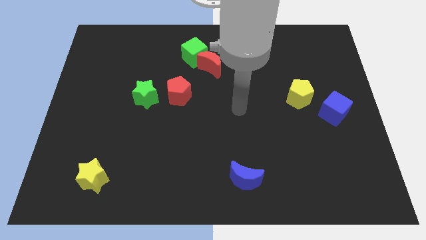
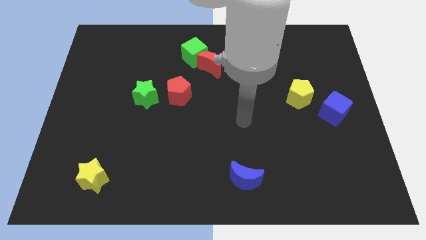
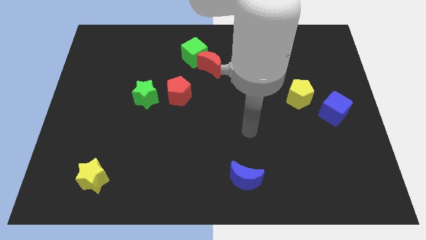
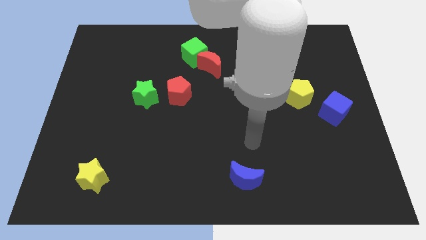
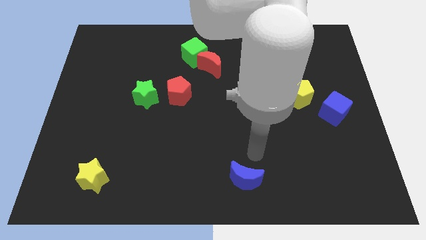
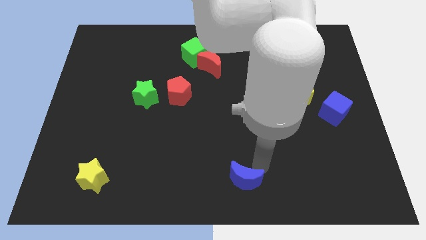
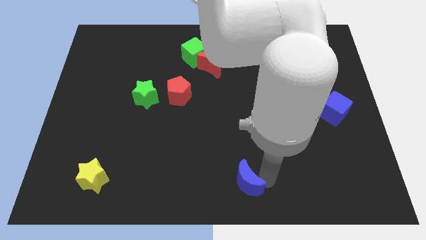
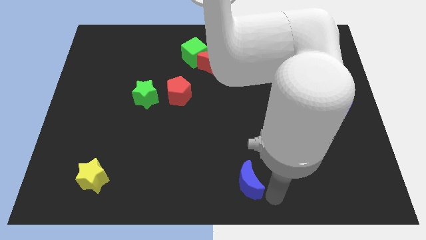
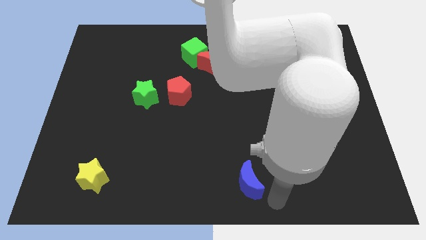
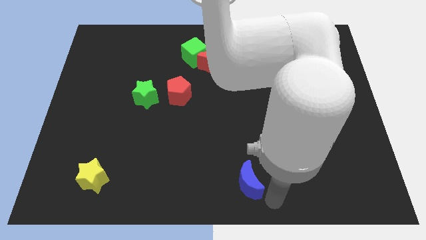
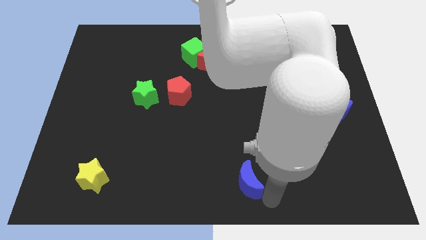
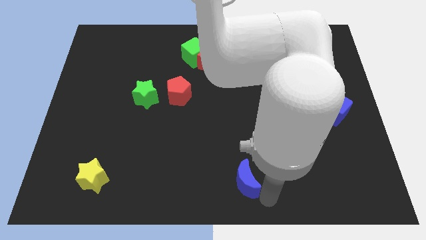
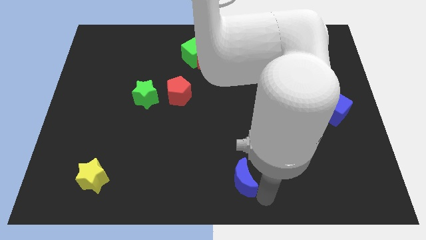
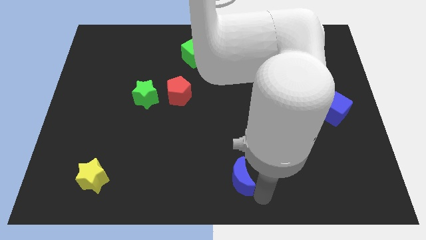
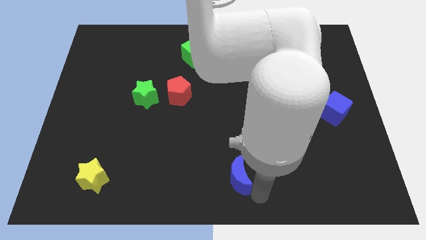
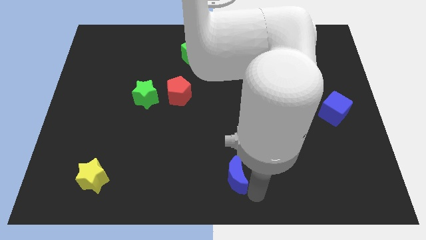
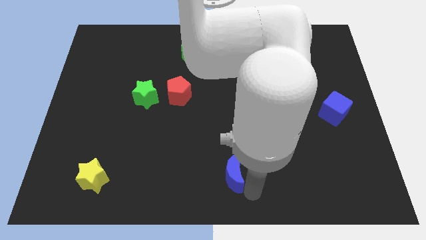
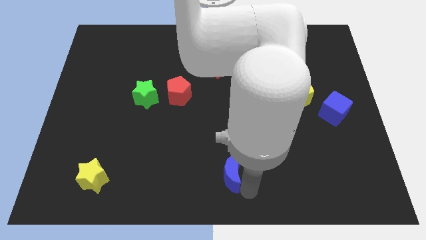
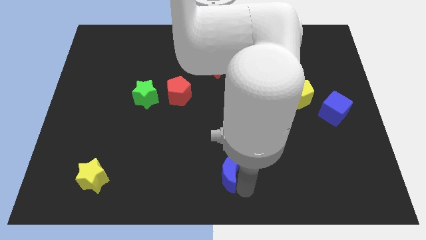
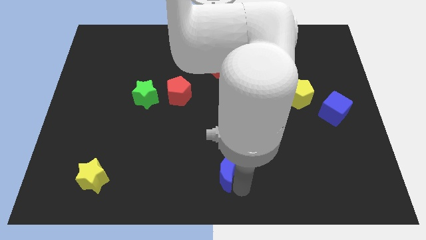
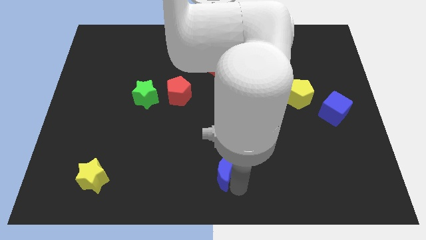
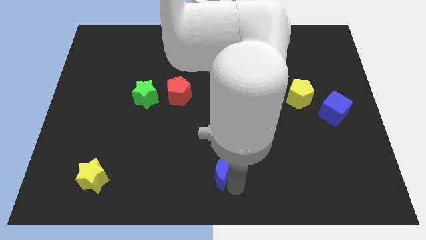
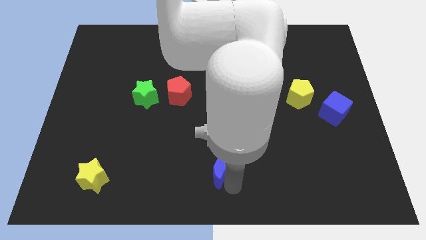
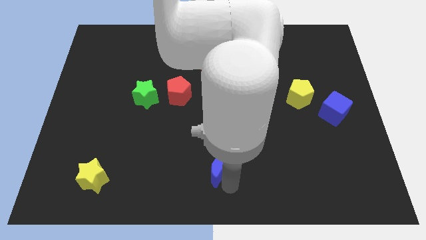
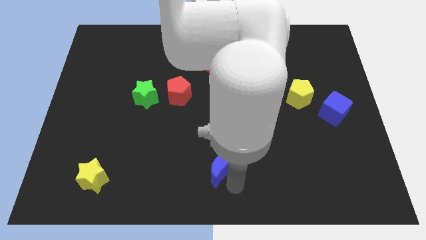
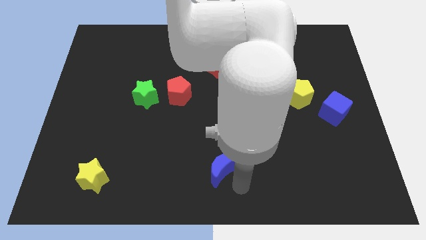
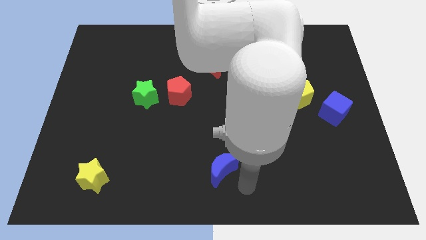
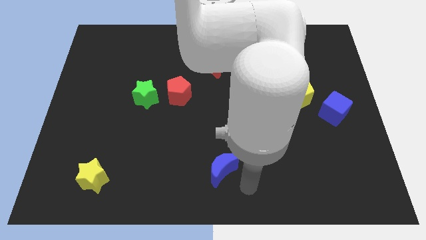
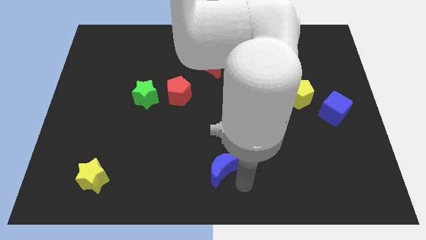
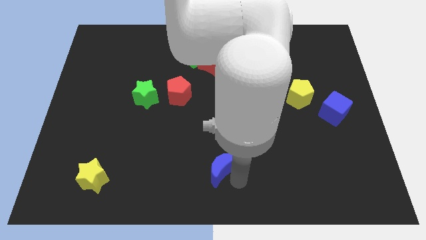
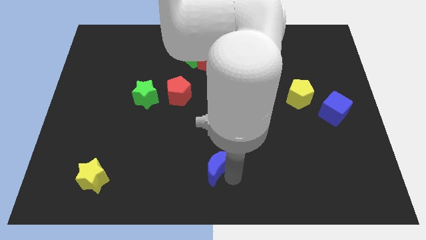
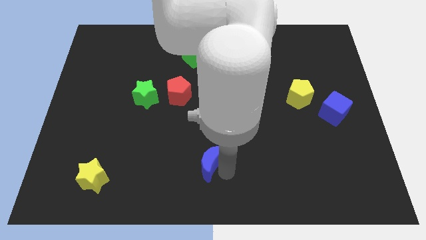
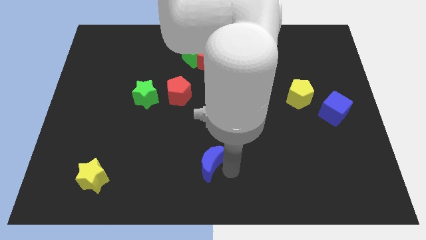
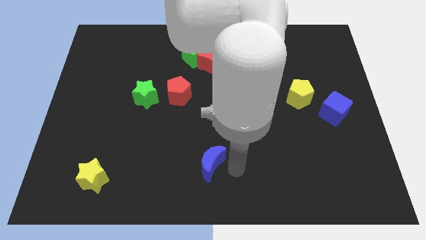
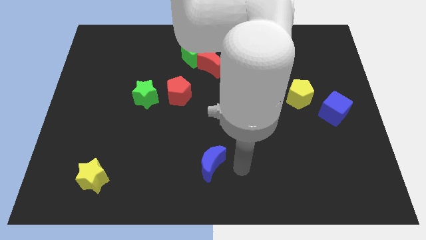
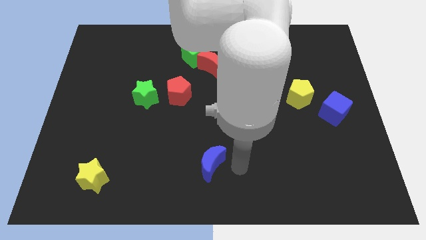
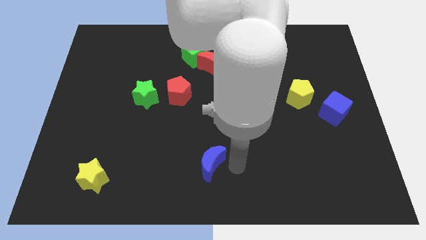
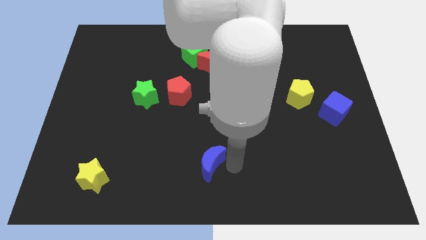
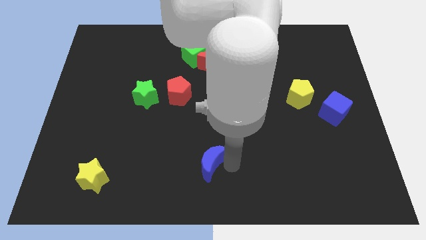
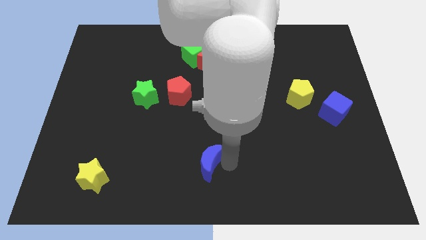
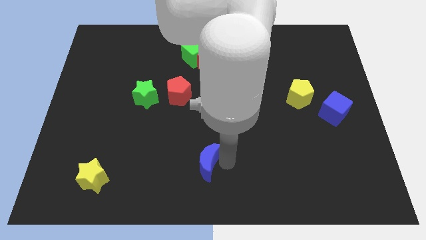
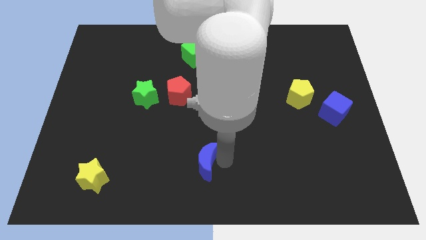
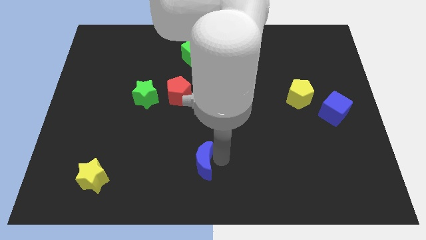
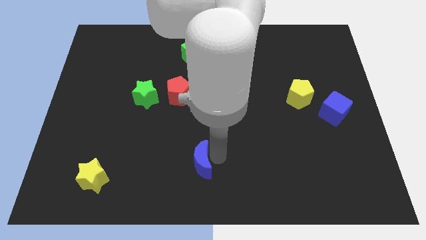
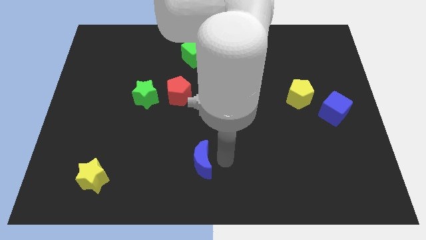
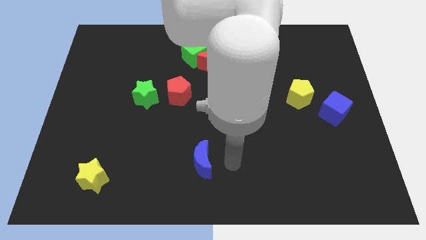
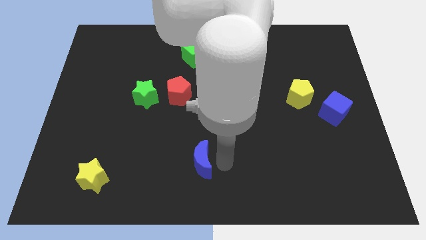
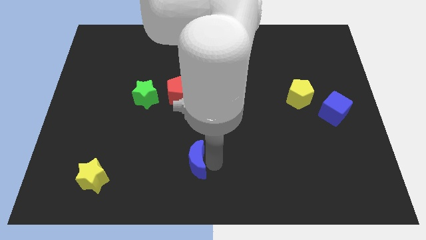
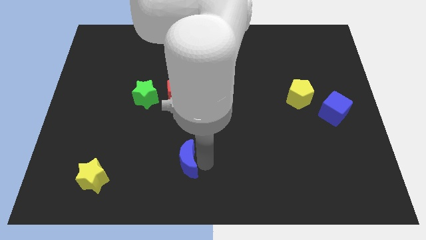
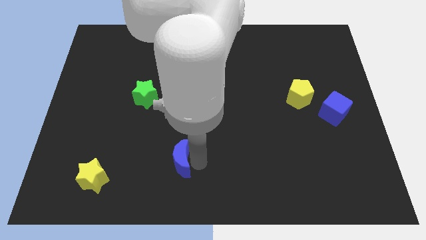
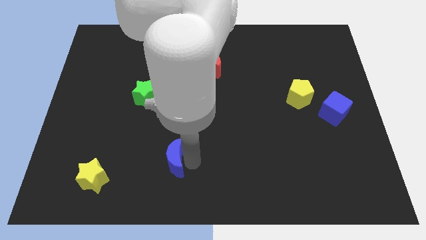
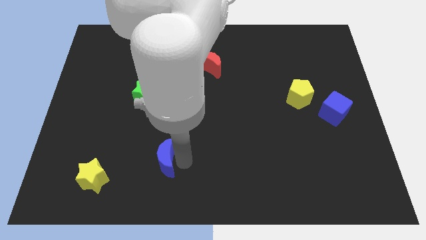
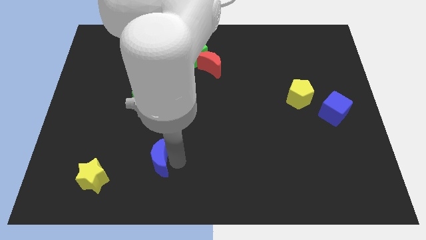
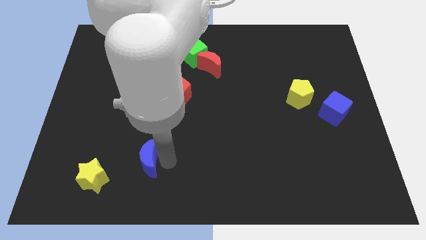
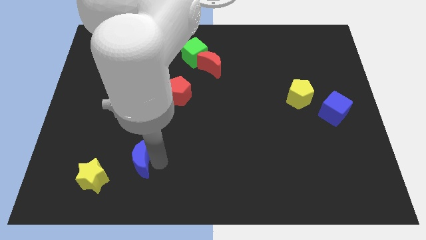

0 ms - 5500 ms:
move the blue moon to the top right side of the yellow star

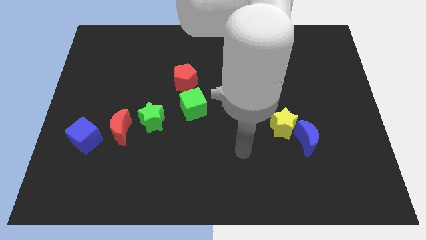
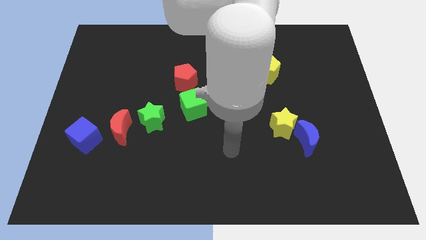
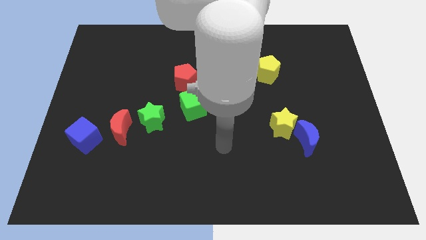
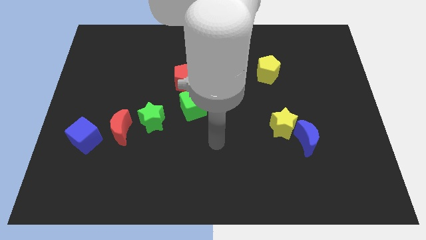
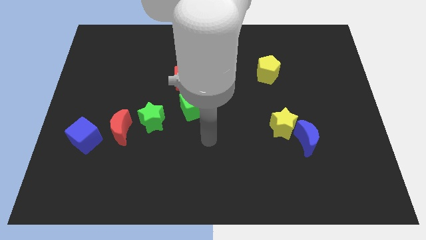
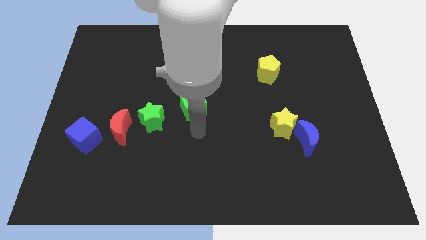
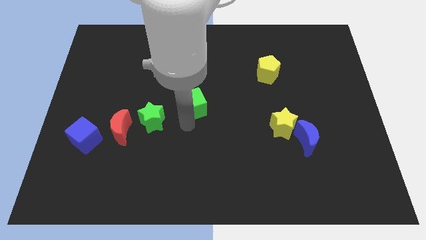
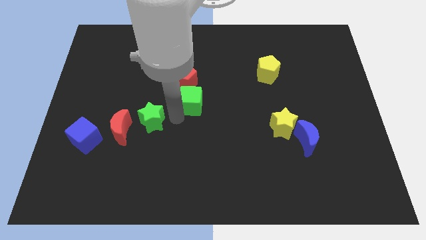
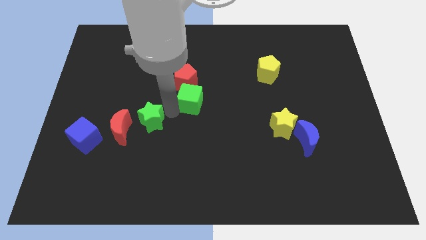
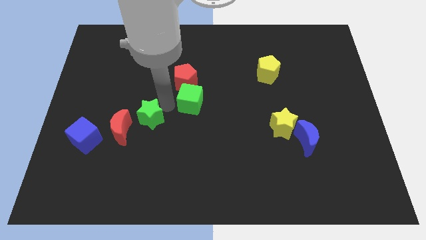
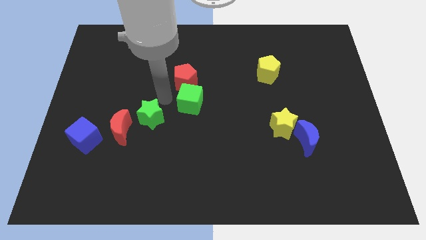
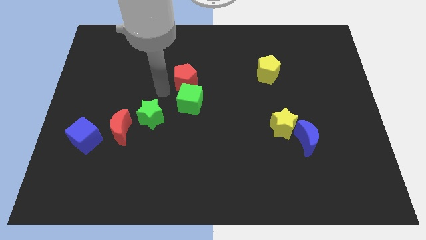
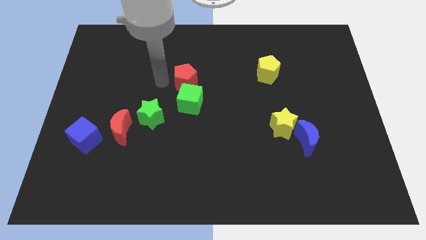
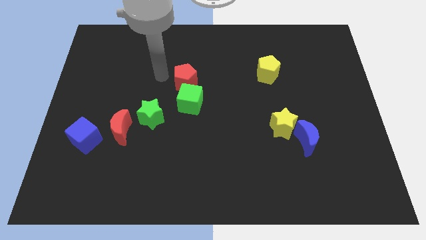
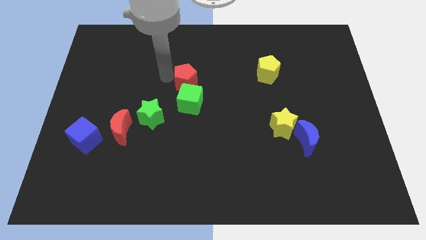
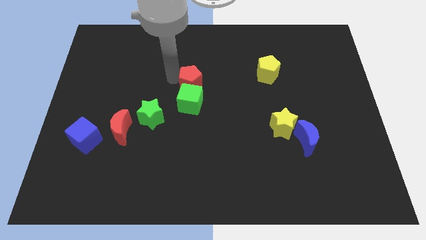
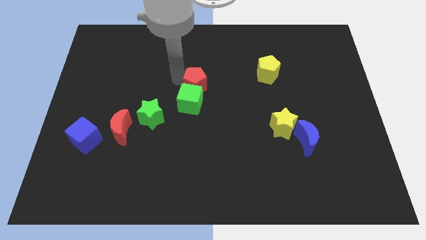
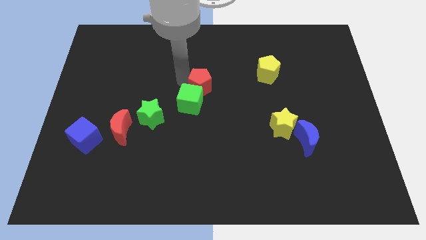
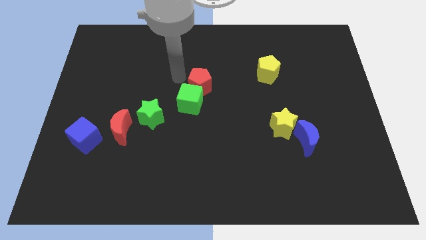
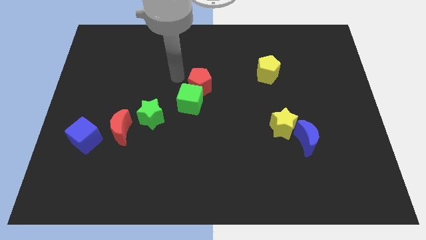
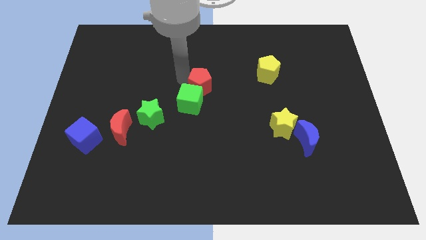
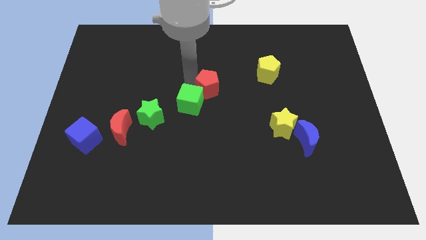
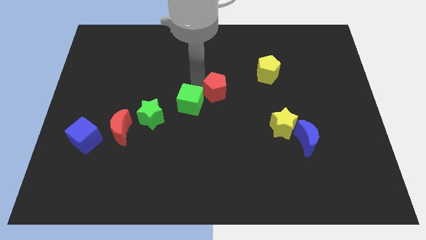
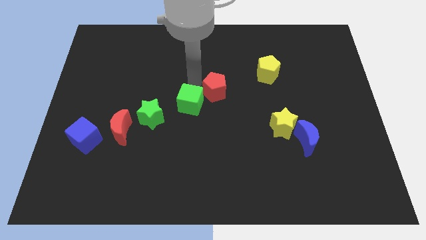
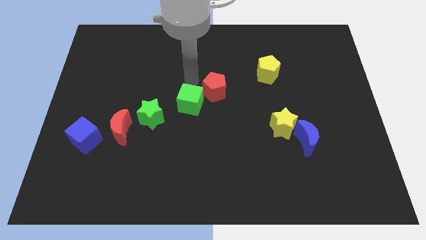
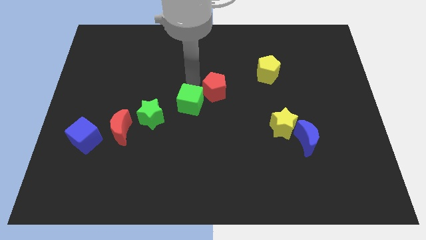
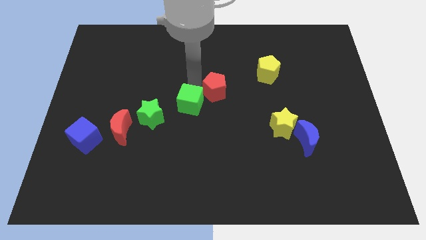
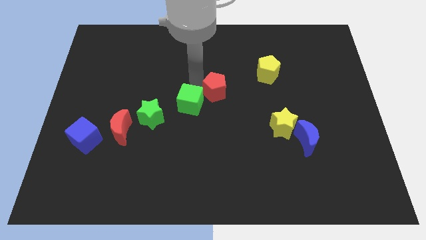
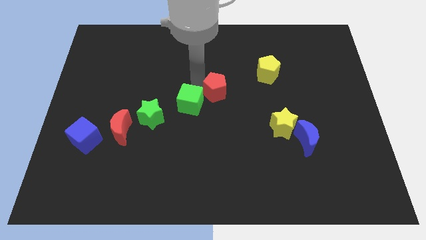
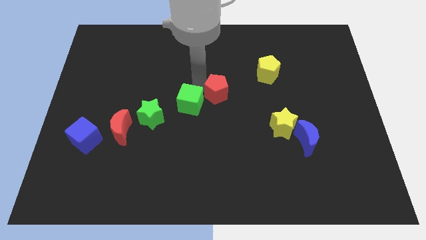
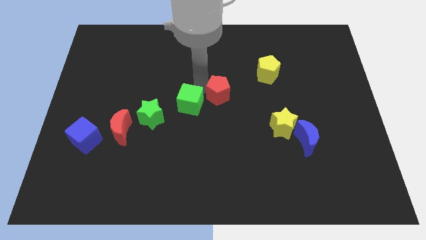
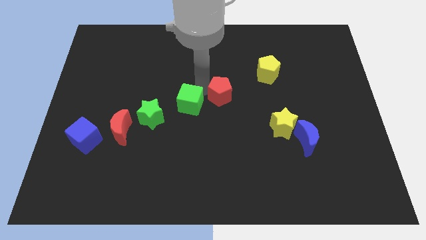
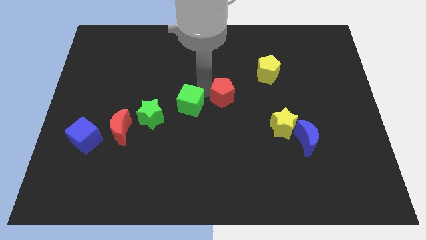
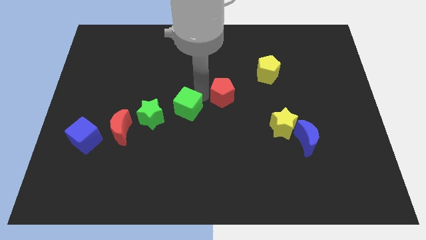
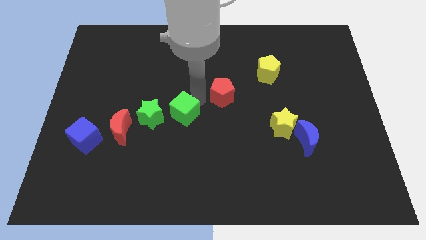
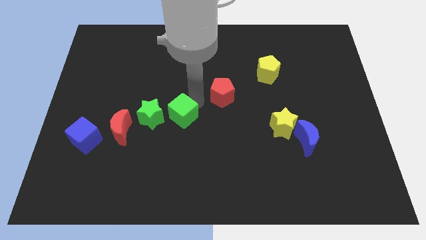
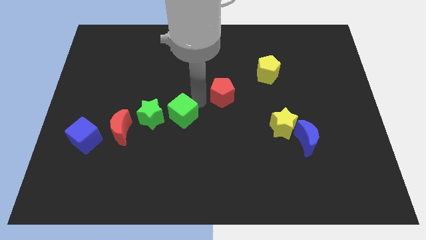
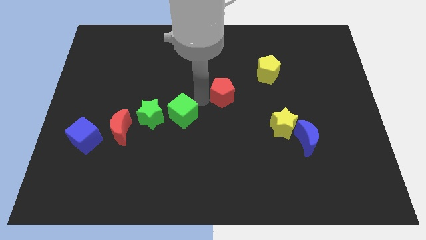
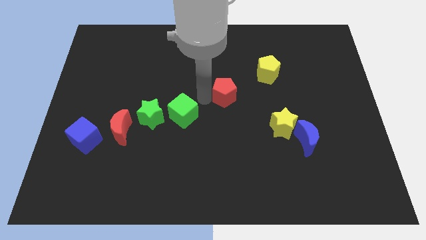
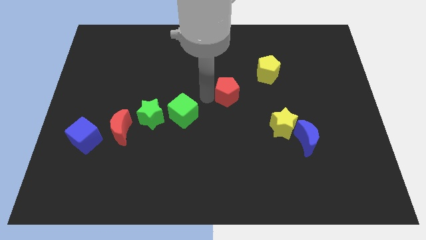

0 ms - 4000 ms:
move the red pentagon diagonally down and to the left of the yellow pentagon
